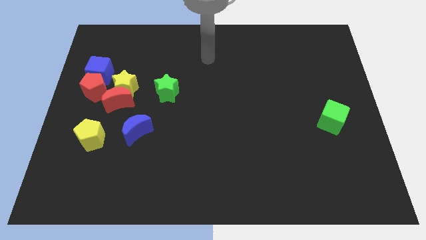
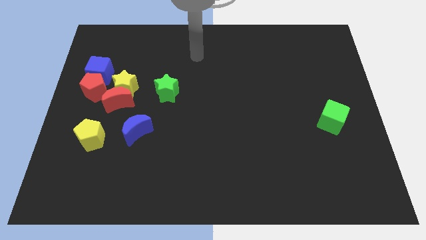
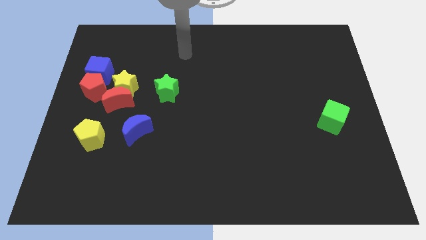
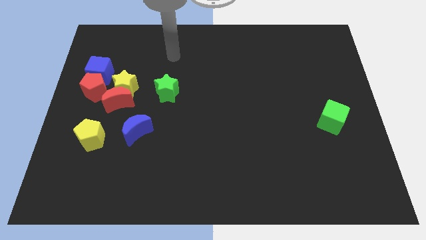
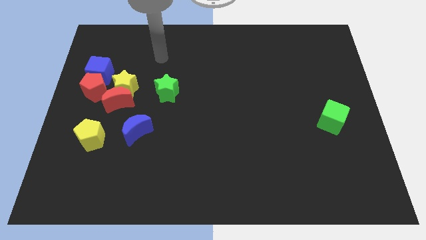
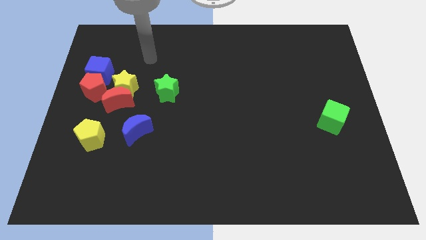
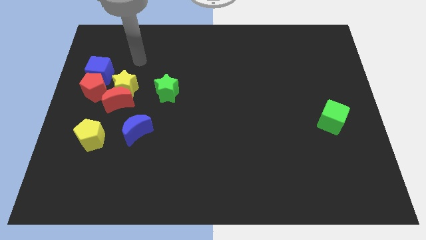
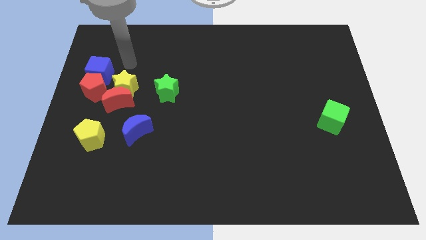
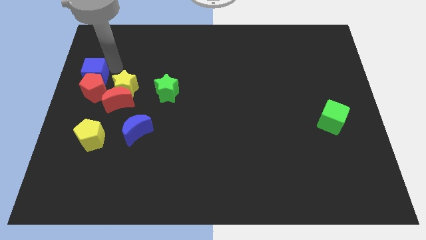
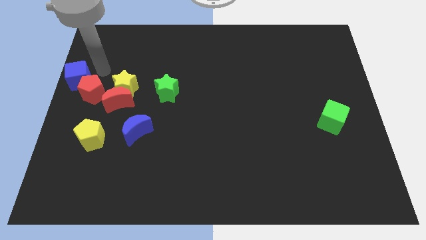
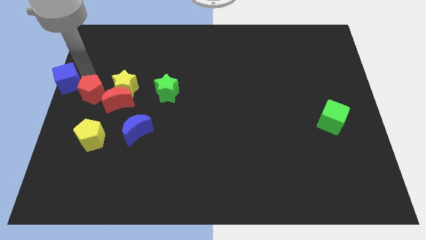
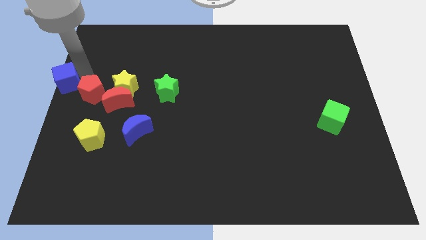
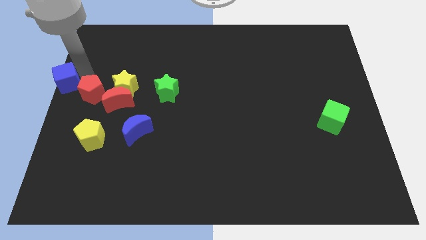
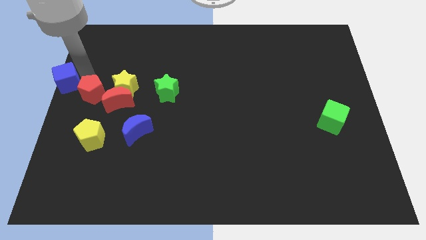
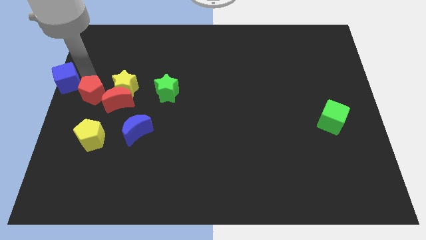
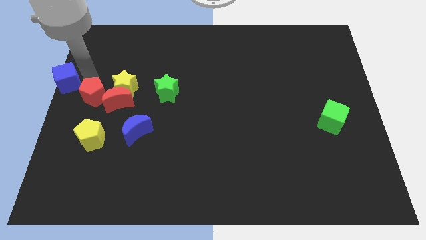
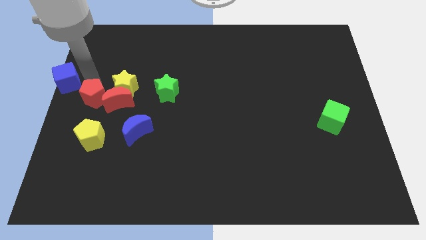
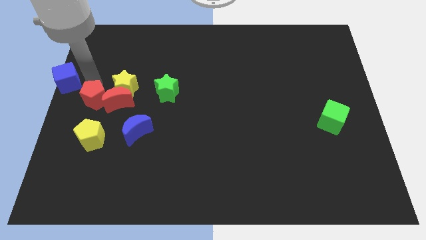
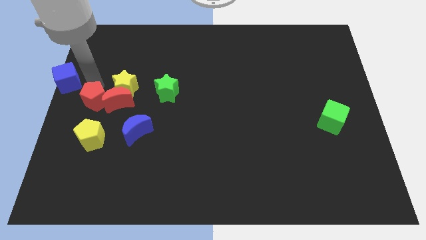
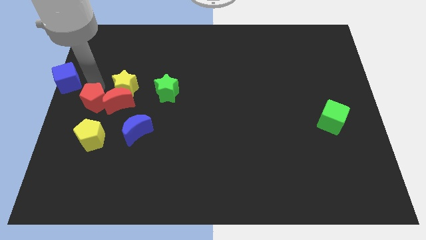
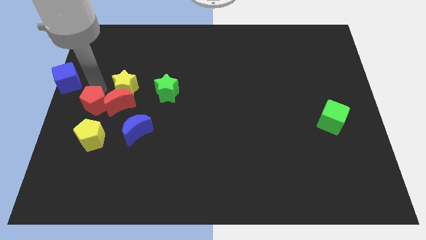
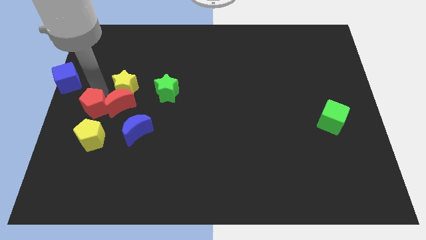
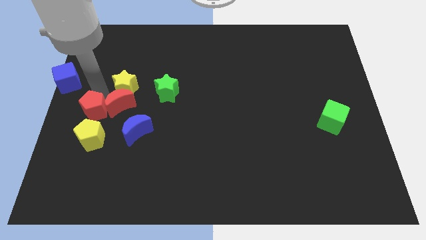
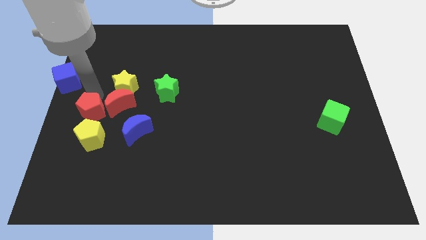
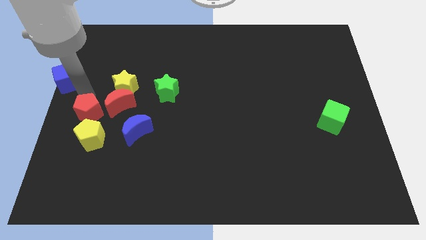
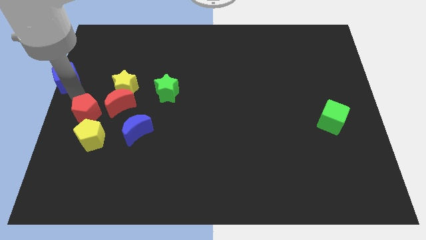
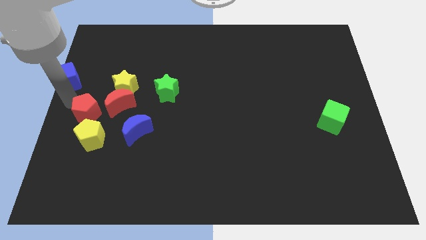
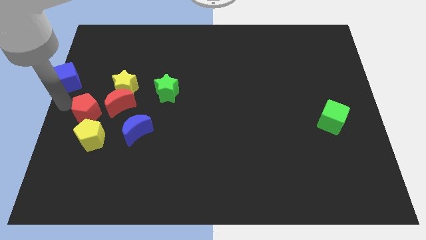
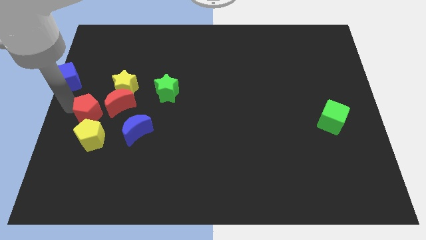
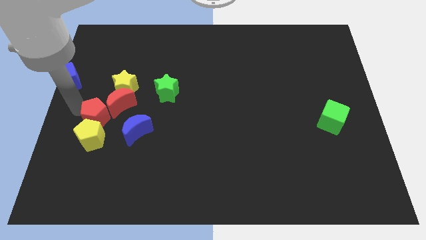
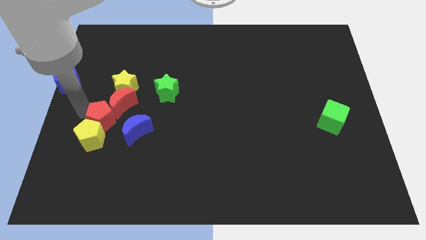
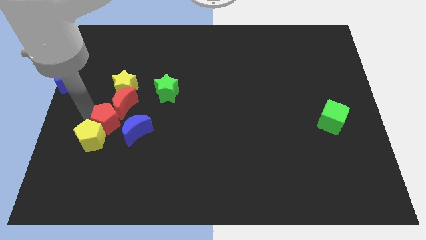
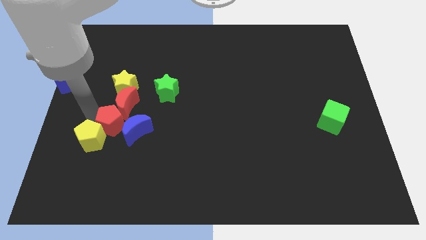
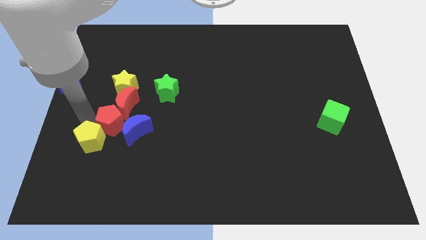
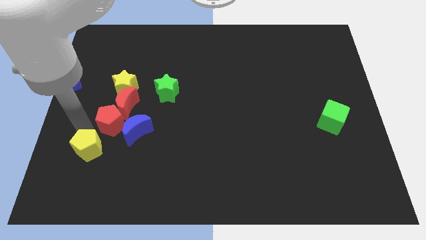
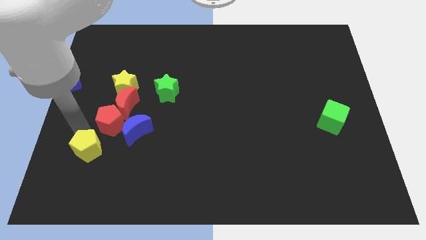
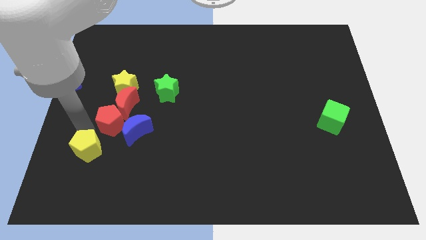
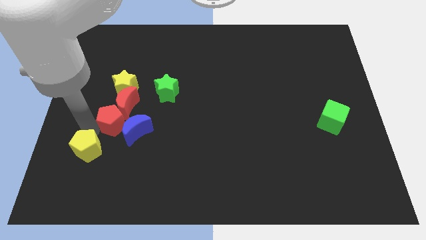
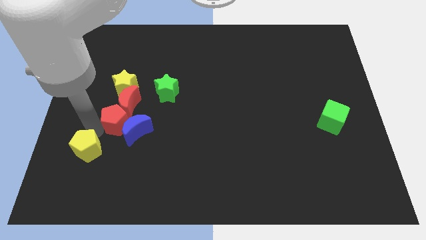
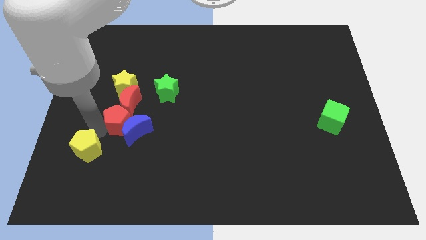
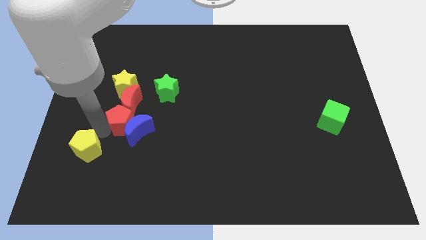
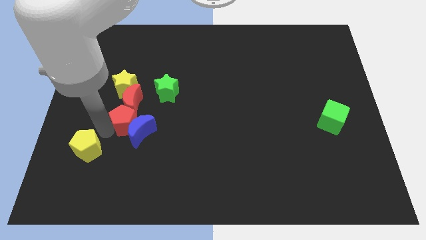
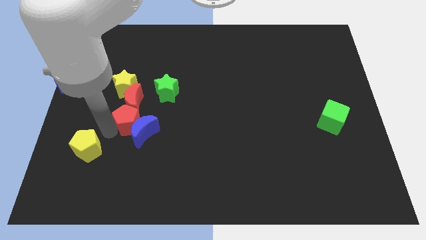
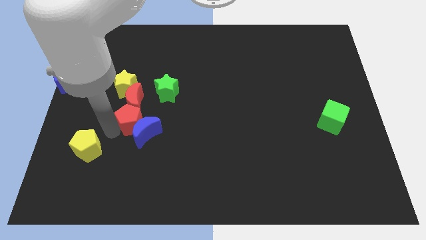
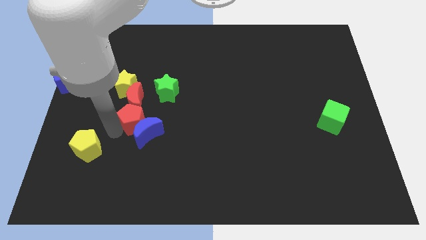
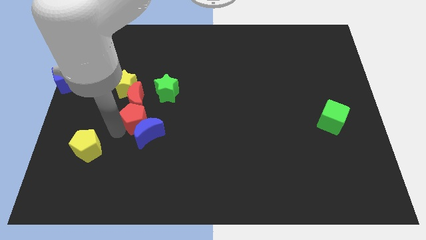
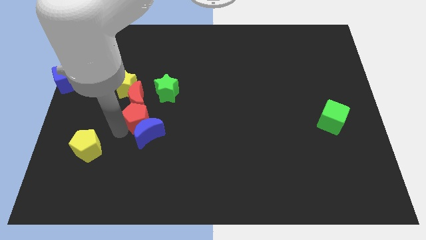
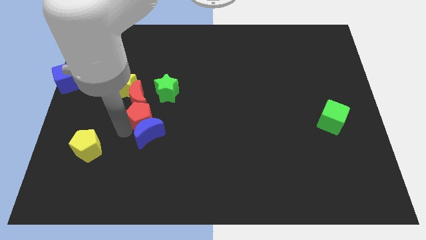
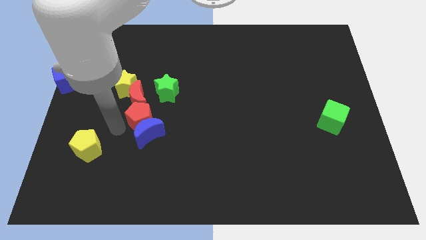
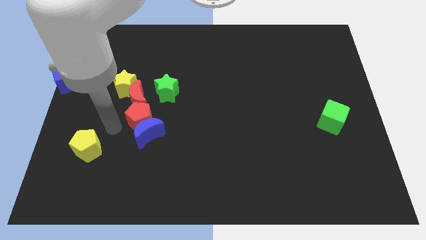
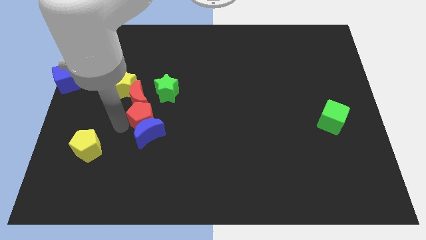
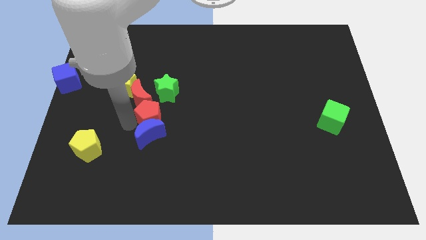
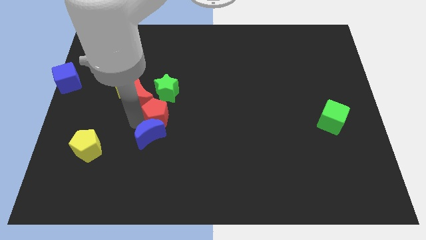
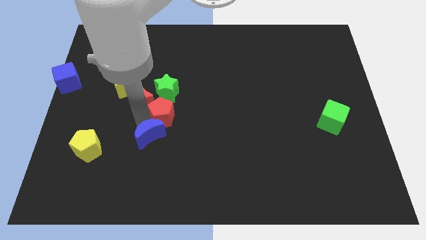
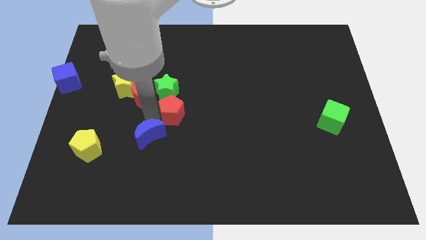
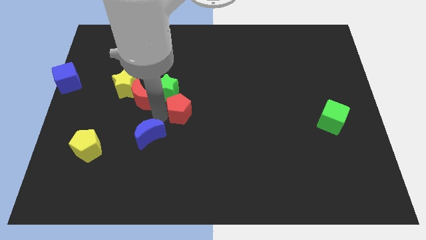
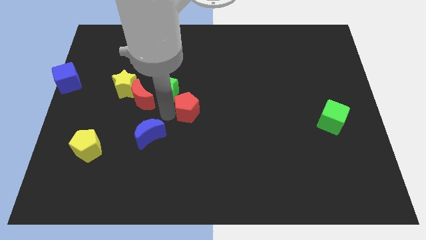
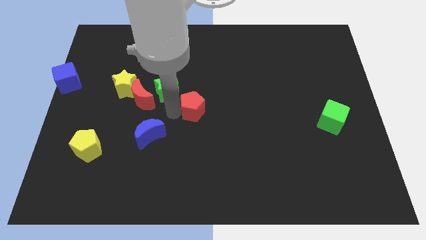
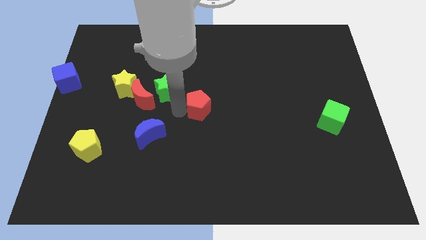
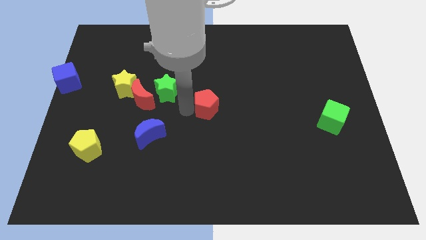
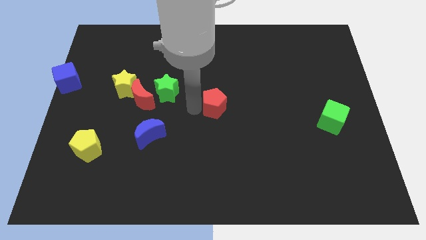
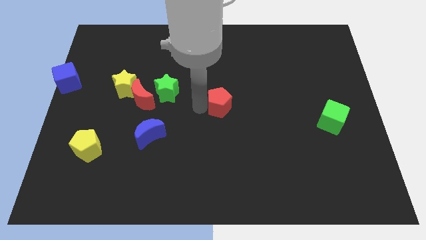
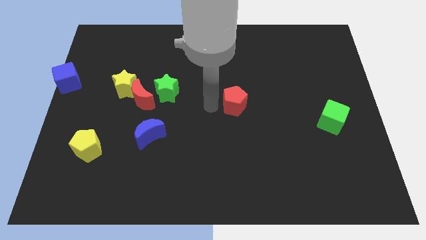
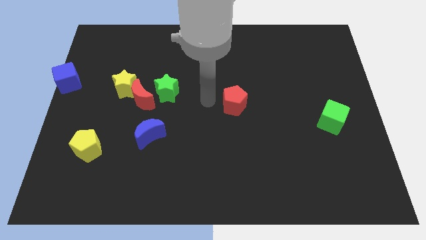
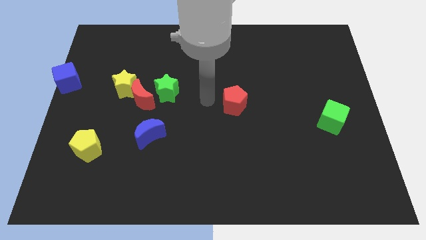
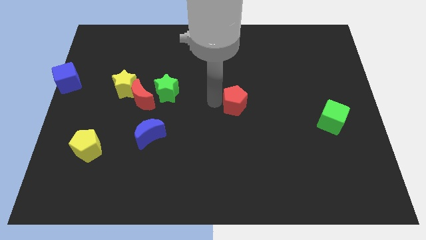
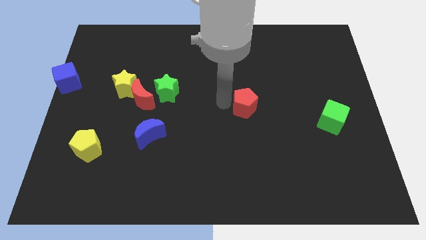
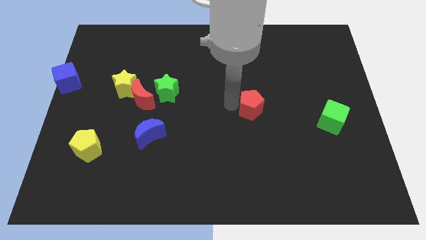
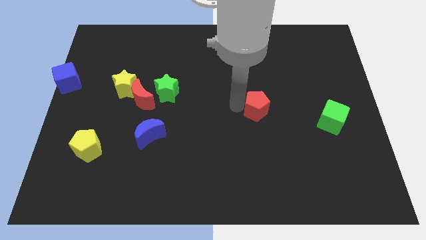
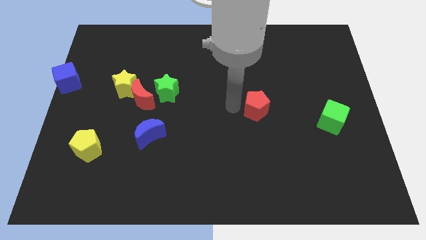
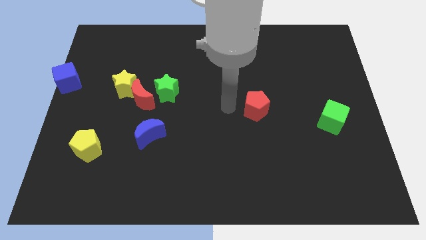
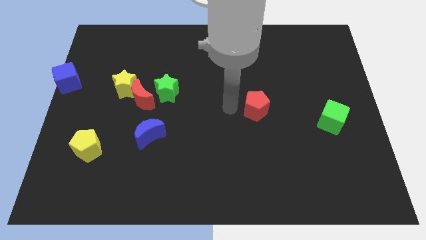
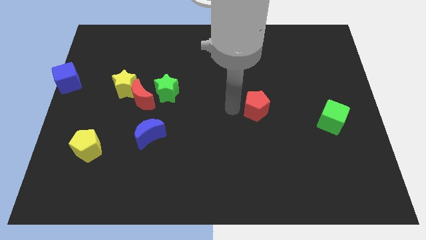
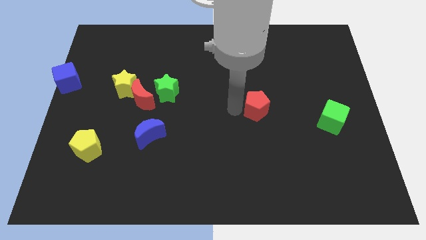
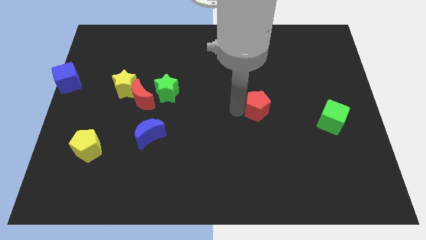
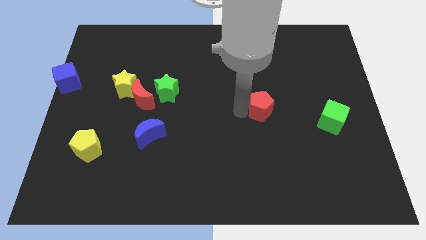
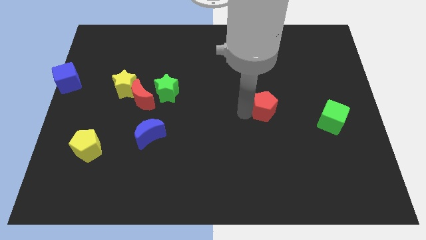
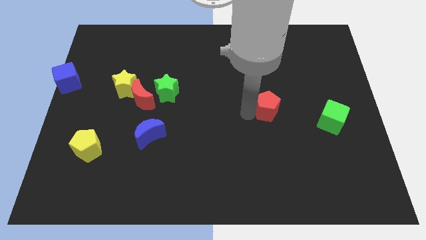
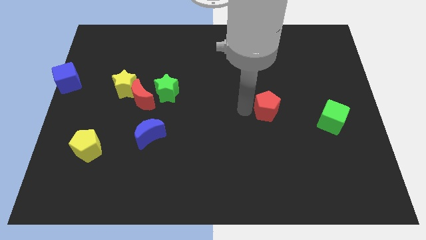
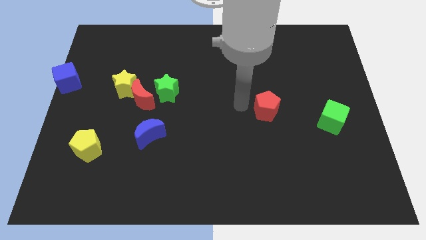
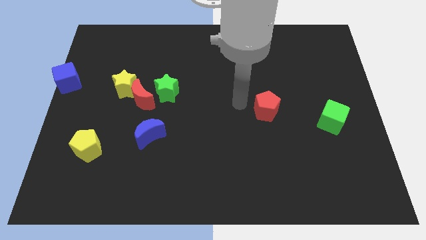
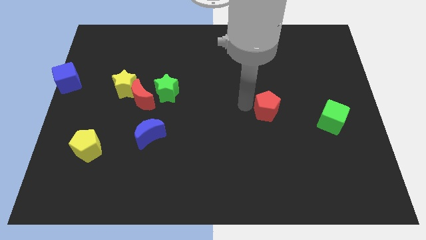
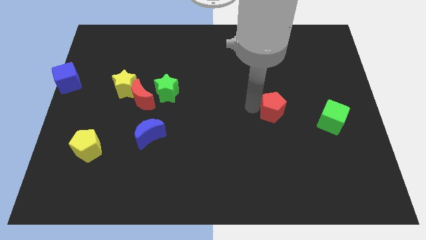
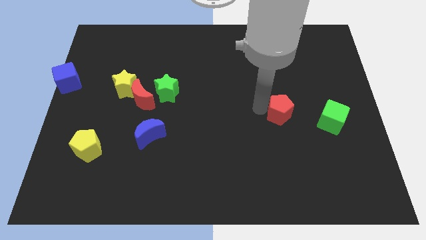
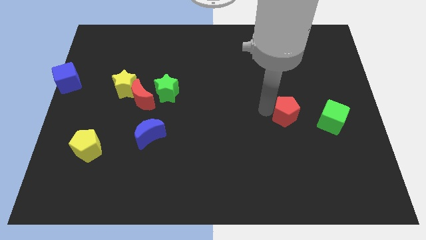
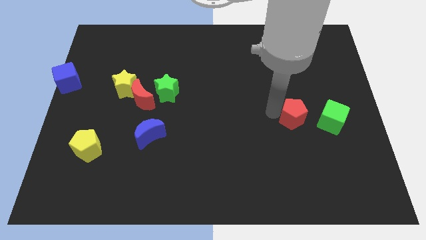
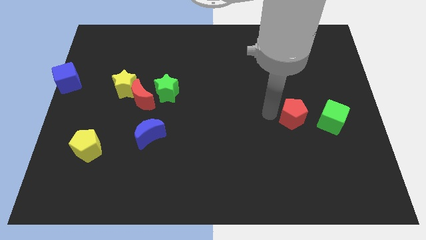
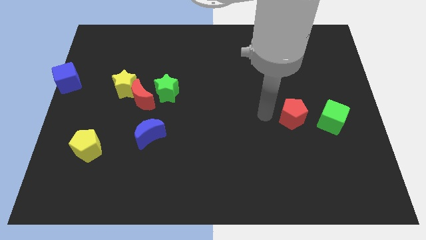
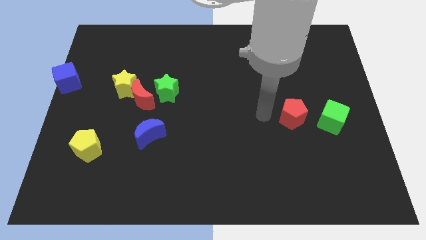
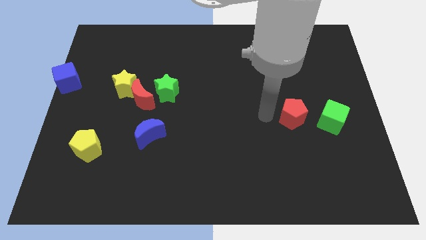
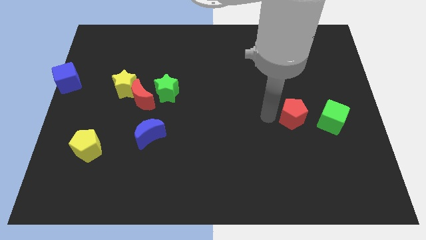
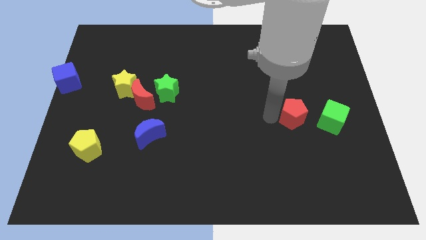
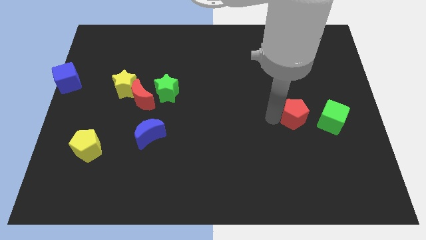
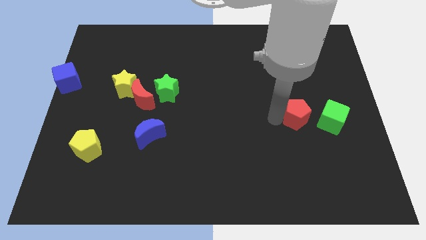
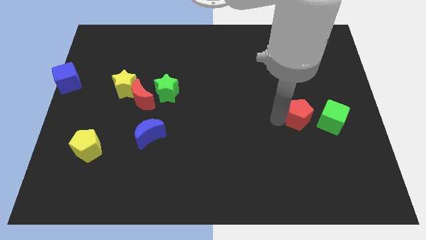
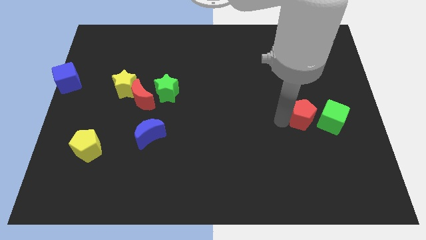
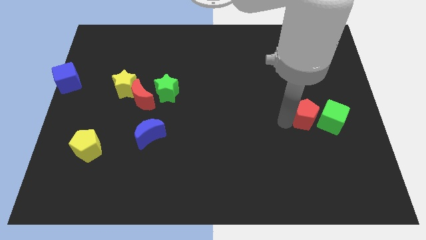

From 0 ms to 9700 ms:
move the red pentagon next to the green cube
